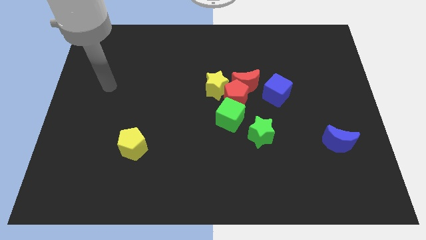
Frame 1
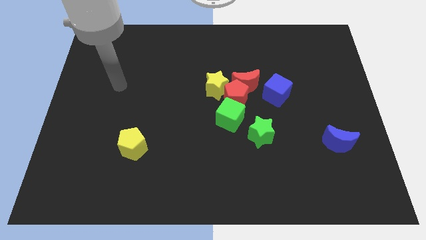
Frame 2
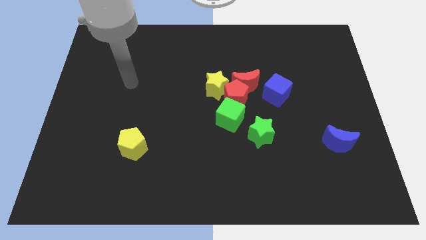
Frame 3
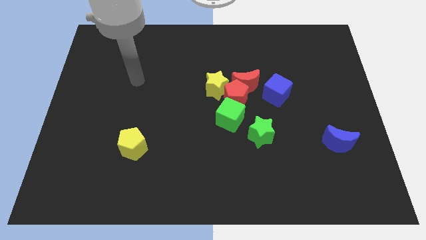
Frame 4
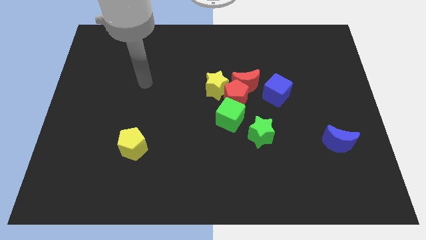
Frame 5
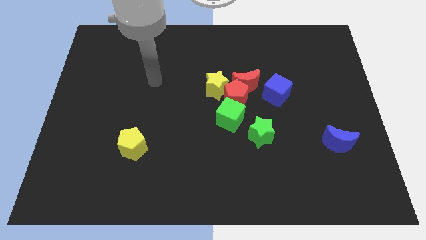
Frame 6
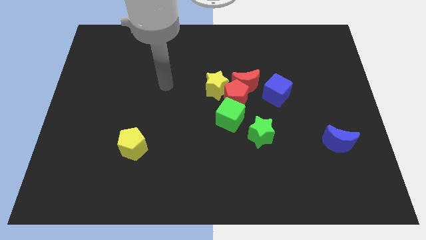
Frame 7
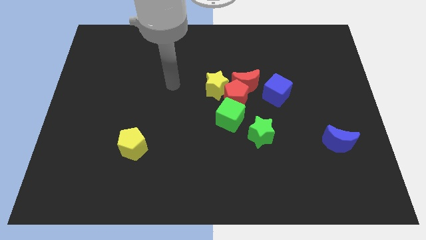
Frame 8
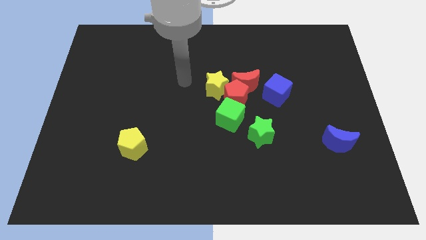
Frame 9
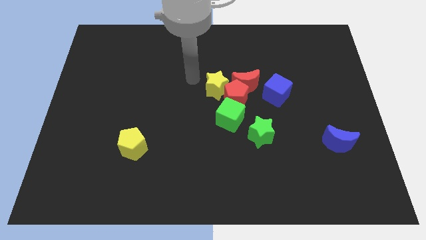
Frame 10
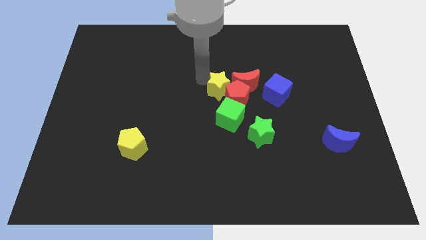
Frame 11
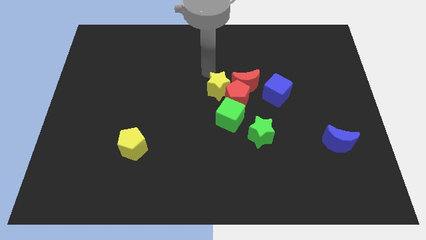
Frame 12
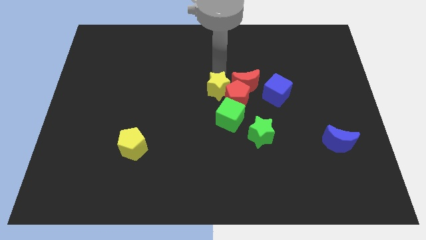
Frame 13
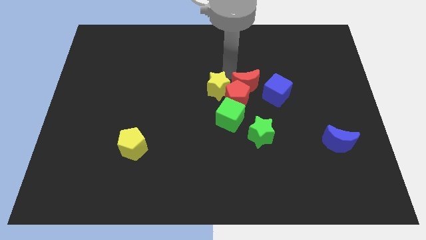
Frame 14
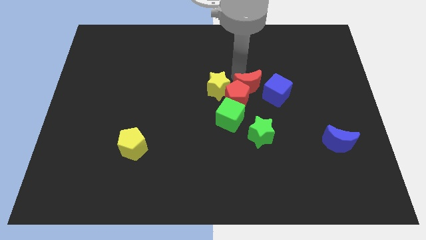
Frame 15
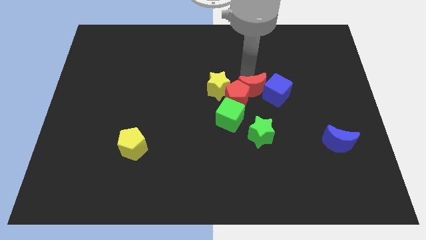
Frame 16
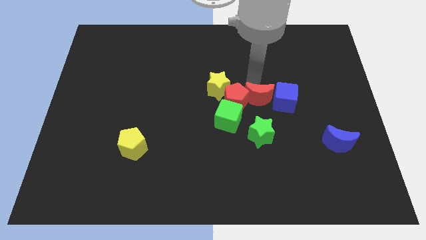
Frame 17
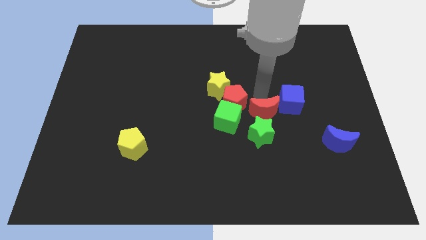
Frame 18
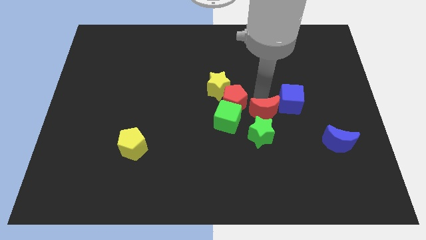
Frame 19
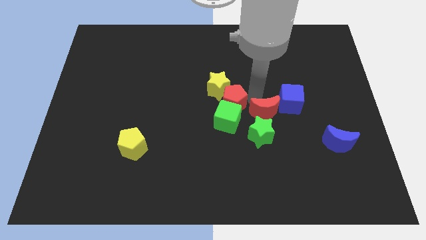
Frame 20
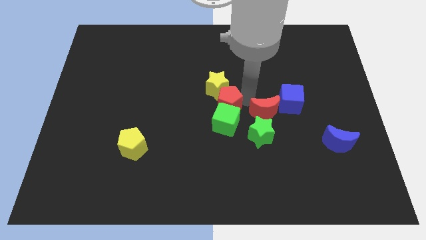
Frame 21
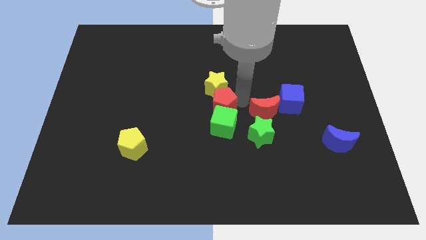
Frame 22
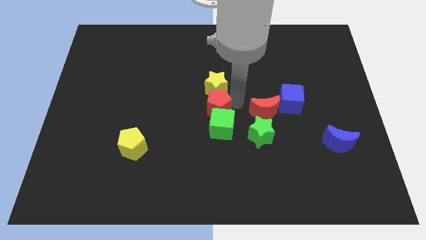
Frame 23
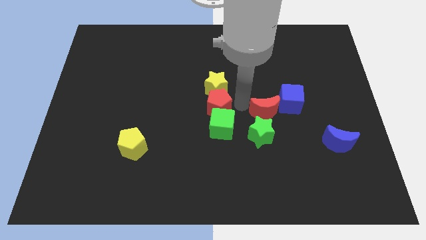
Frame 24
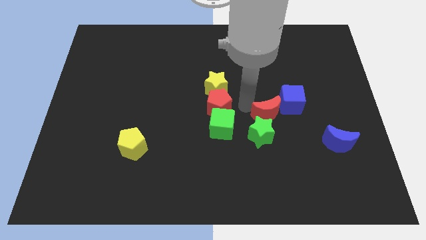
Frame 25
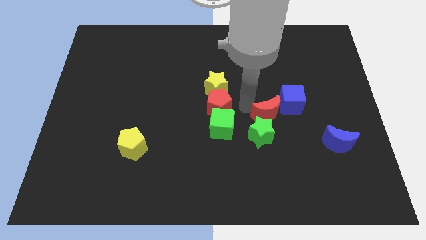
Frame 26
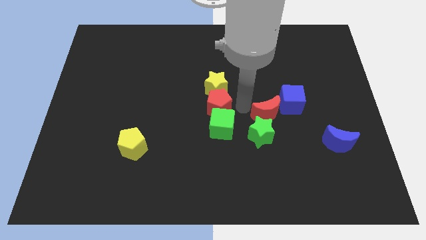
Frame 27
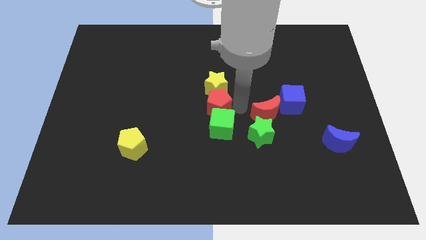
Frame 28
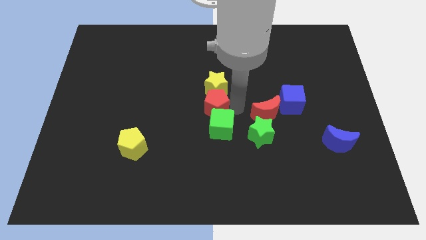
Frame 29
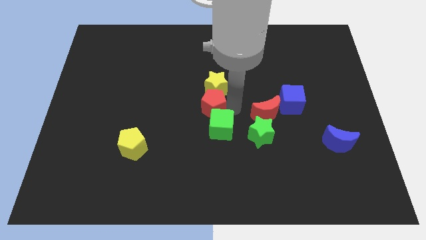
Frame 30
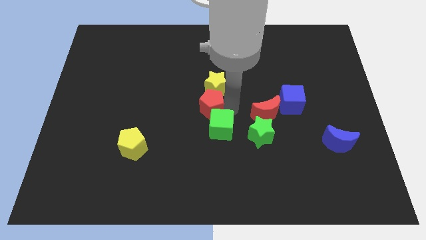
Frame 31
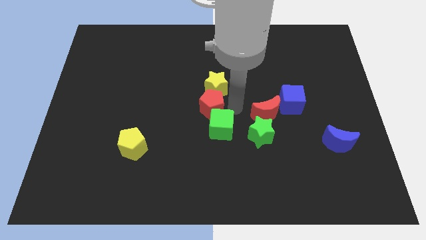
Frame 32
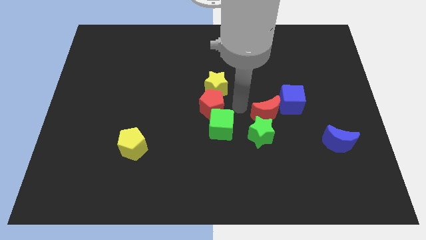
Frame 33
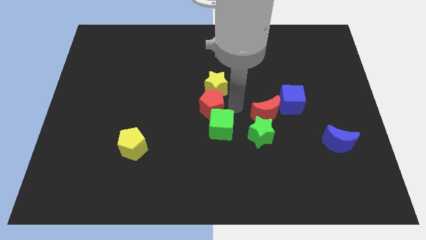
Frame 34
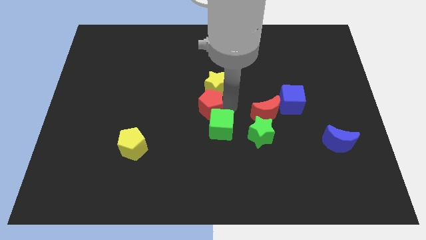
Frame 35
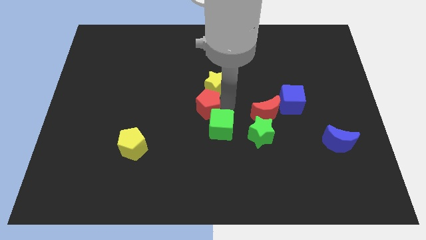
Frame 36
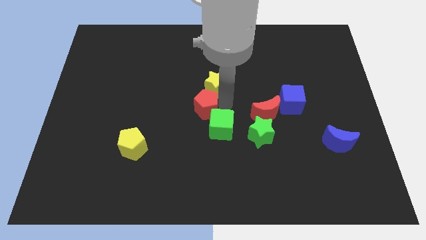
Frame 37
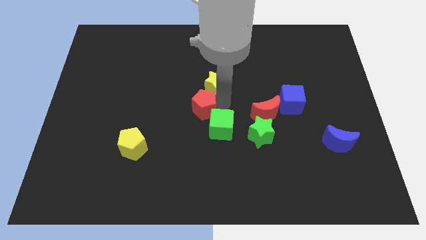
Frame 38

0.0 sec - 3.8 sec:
move the red pentagon away from the group

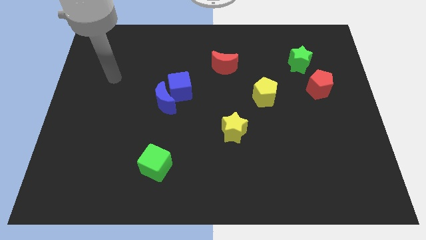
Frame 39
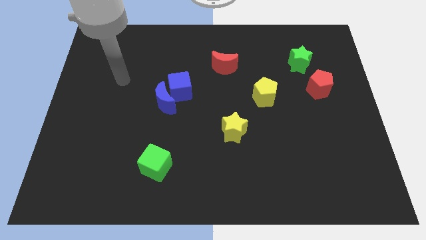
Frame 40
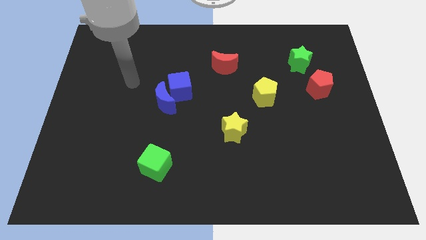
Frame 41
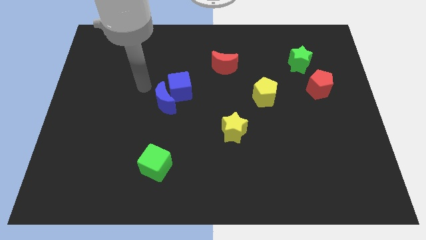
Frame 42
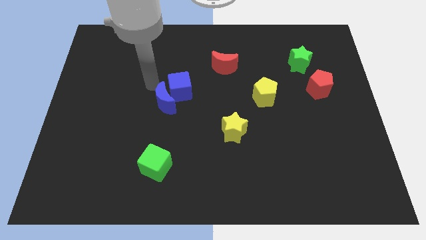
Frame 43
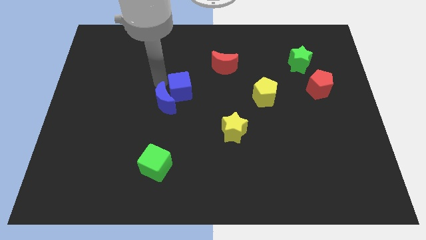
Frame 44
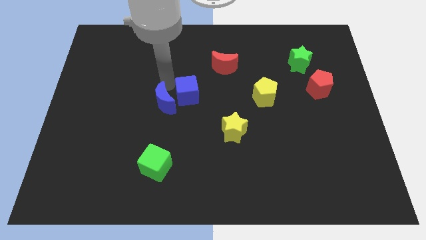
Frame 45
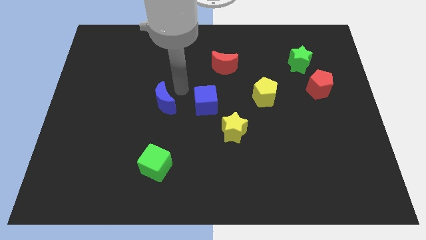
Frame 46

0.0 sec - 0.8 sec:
pull the blue moon apart from the blue cube

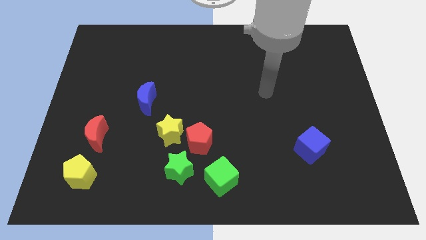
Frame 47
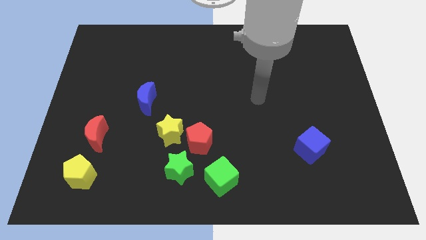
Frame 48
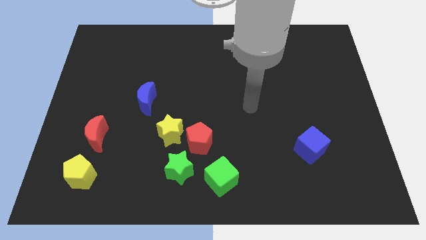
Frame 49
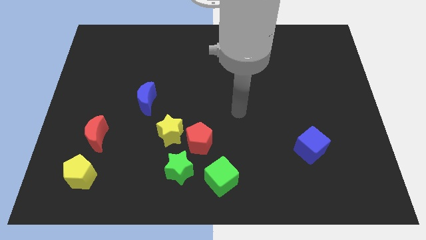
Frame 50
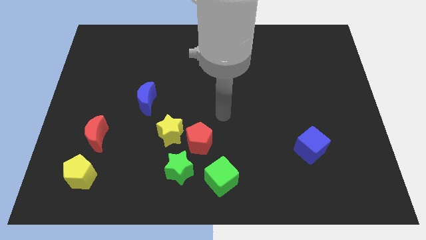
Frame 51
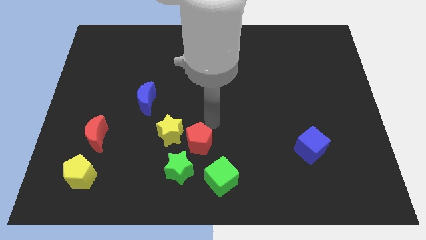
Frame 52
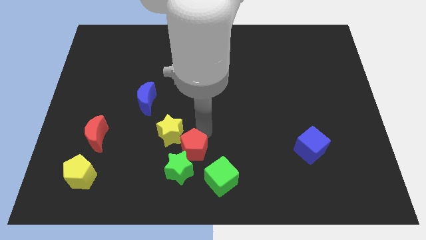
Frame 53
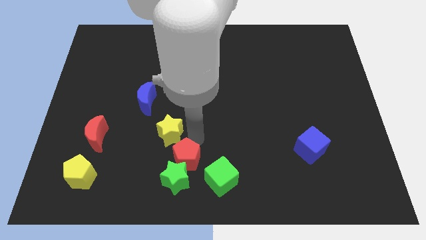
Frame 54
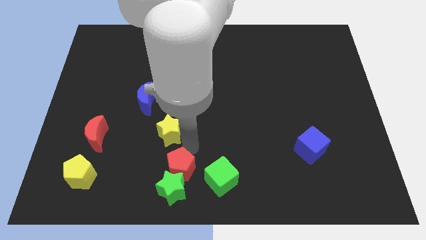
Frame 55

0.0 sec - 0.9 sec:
separate the yellow star from the red pentagon and green star

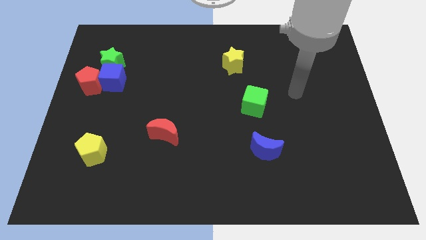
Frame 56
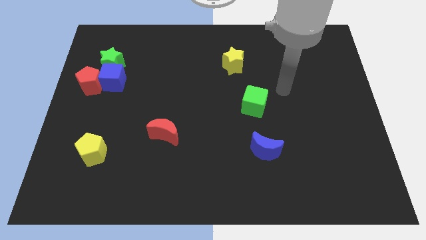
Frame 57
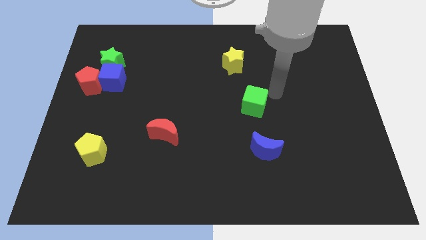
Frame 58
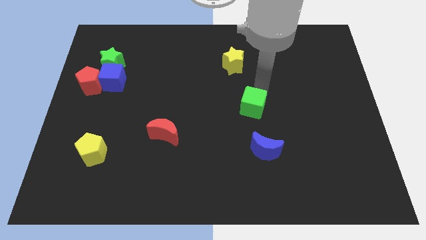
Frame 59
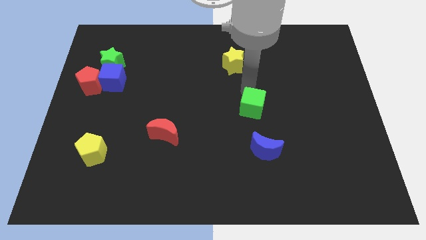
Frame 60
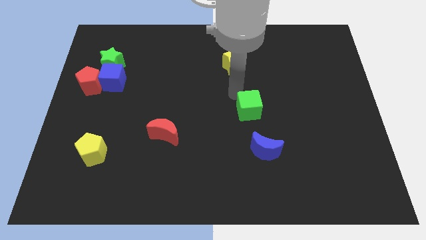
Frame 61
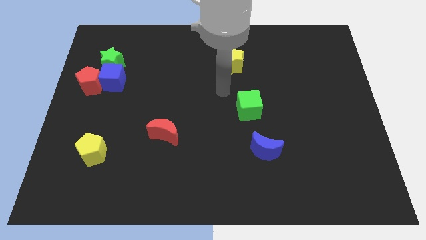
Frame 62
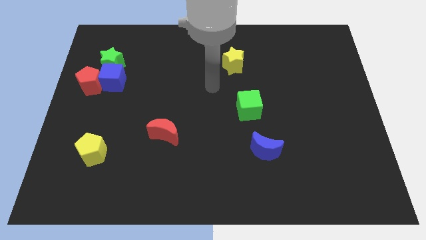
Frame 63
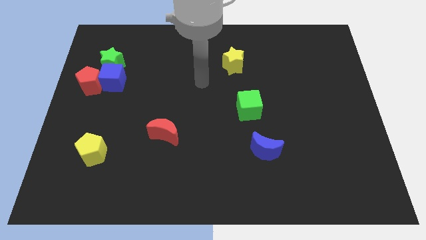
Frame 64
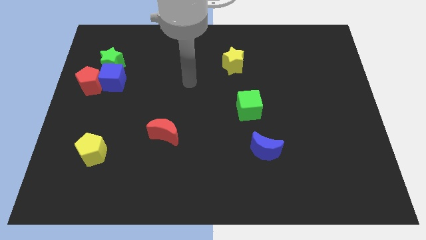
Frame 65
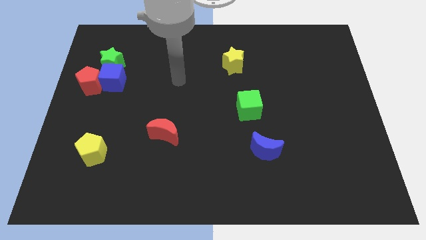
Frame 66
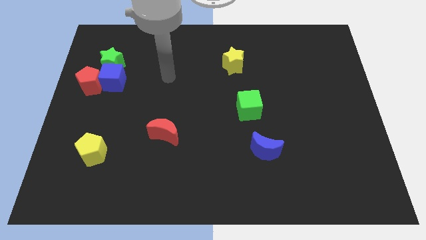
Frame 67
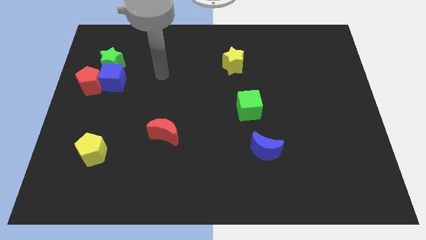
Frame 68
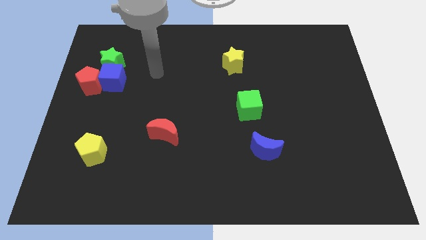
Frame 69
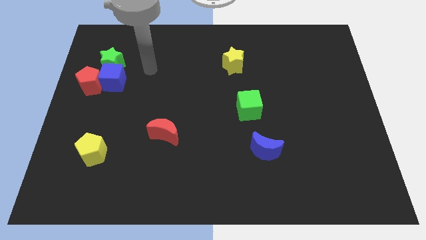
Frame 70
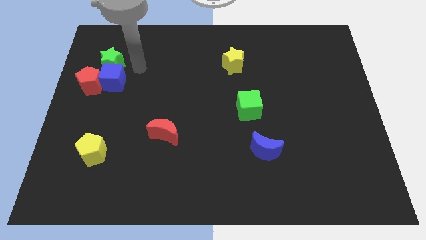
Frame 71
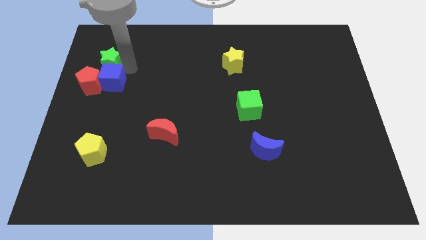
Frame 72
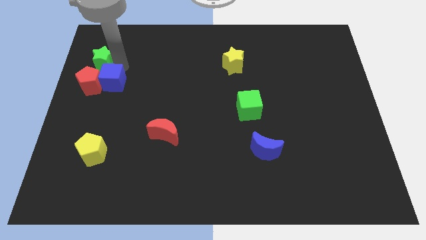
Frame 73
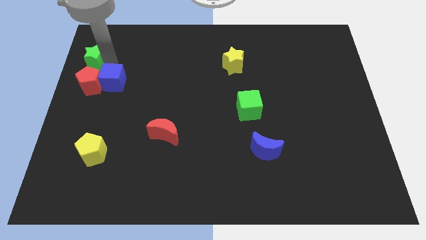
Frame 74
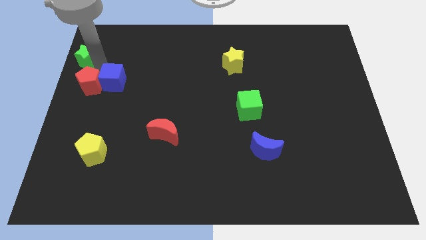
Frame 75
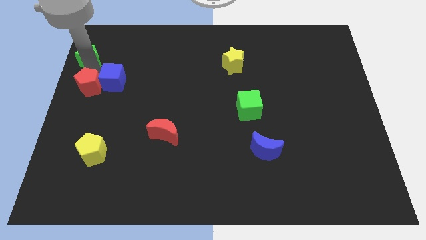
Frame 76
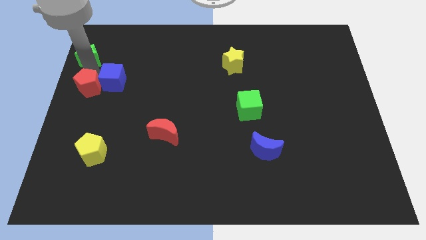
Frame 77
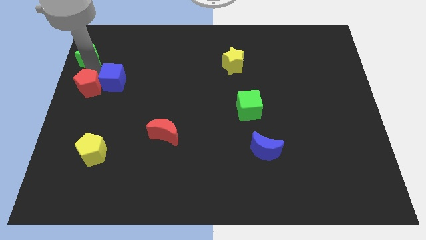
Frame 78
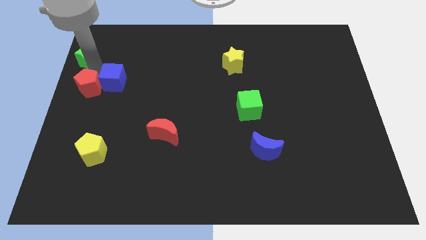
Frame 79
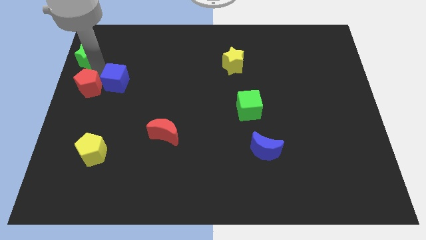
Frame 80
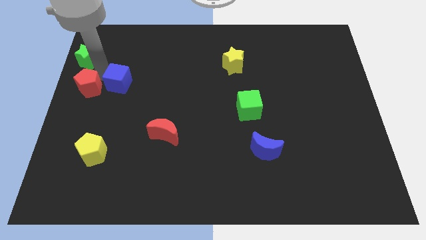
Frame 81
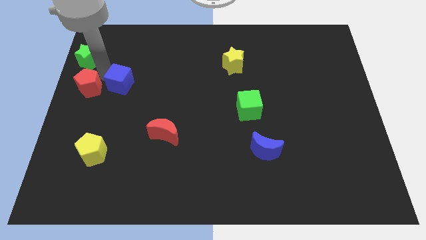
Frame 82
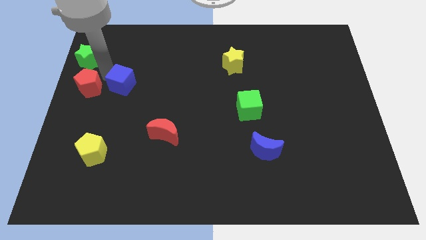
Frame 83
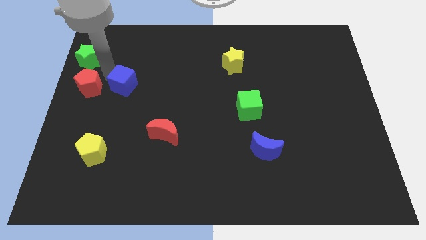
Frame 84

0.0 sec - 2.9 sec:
separate the blue cube from the red pentagon and green star

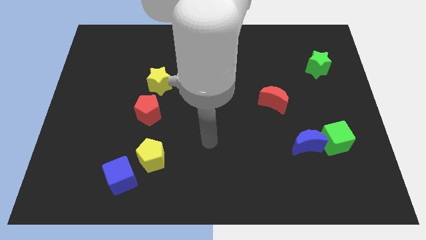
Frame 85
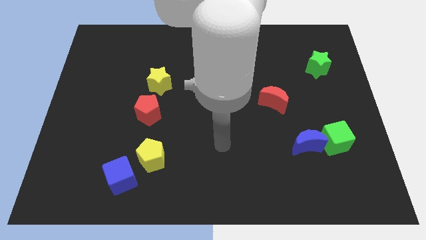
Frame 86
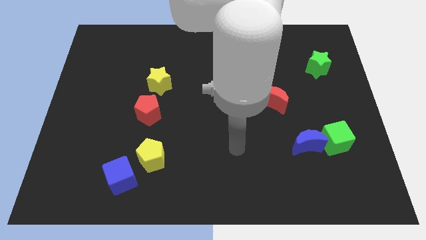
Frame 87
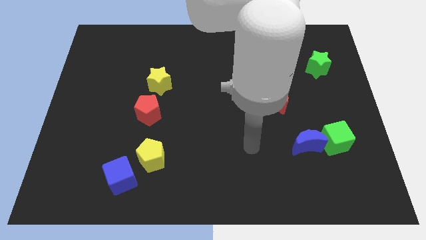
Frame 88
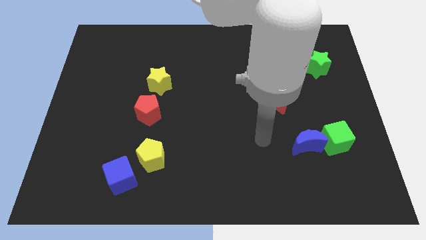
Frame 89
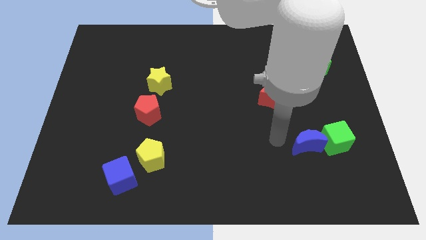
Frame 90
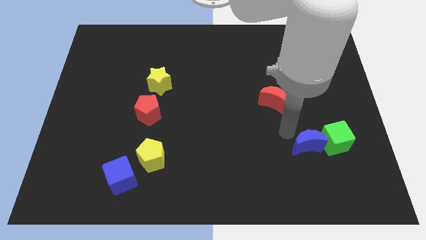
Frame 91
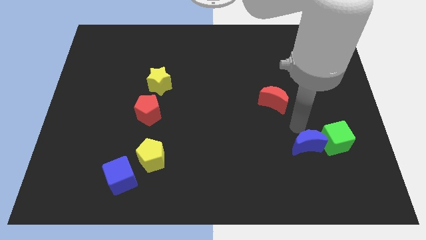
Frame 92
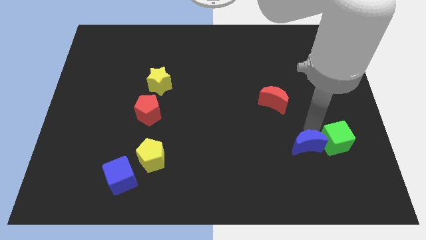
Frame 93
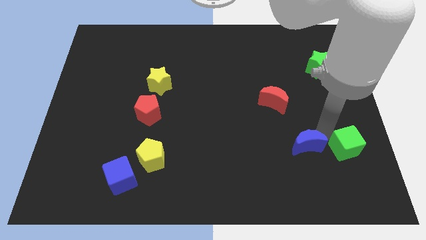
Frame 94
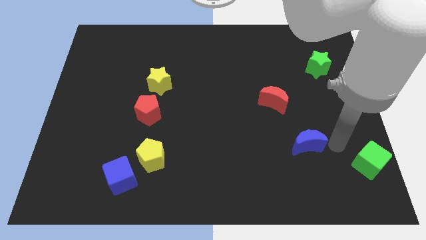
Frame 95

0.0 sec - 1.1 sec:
move the blue moon away from the green cube
